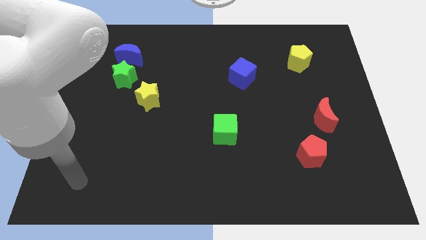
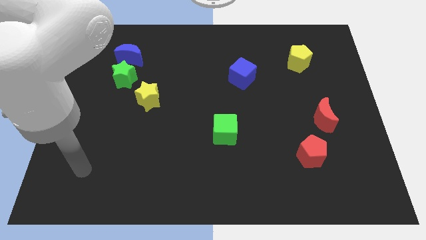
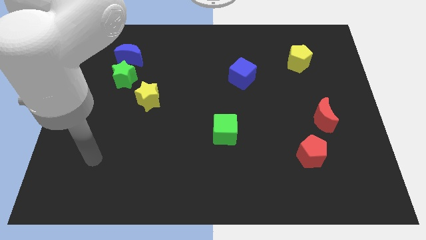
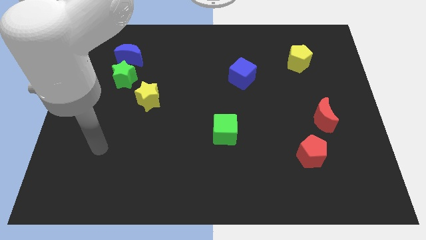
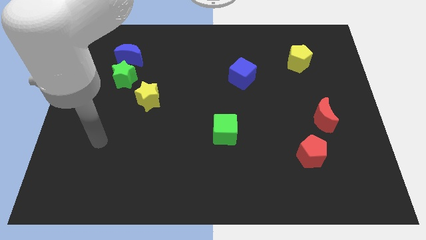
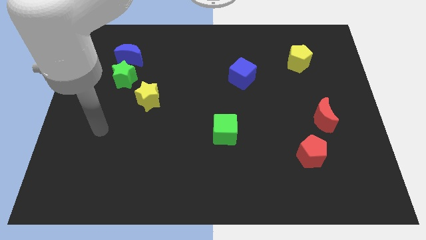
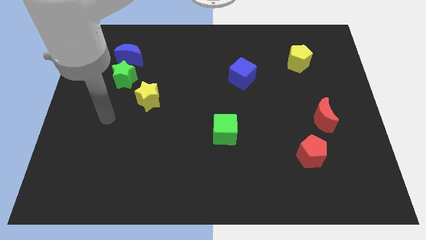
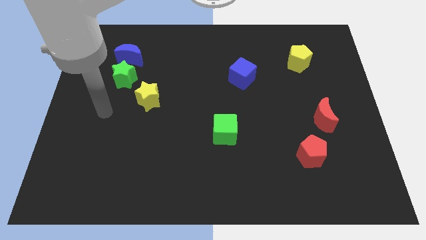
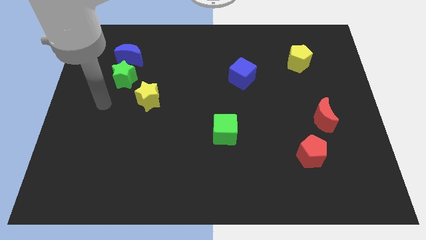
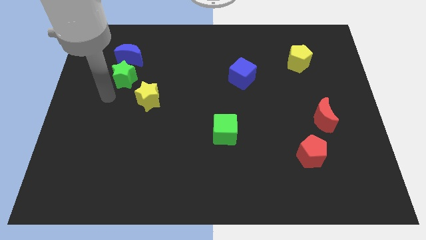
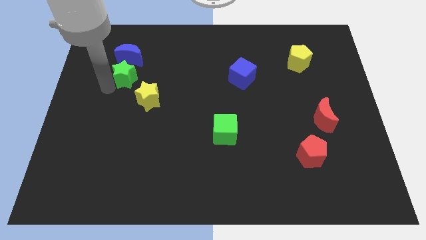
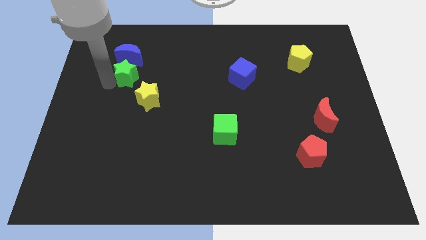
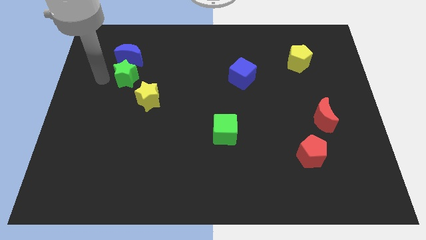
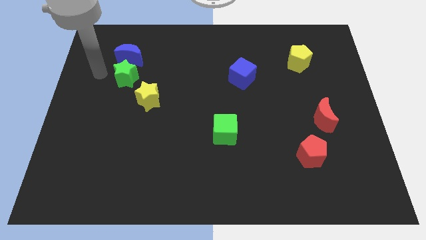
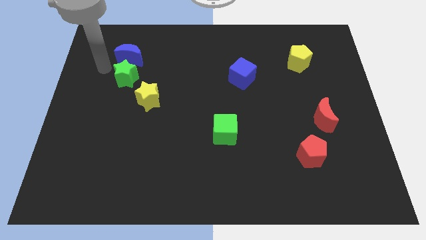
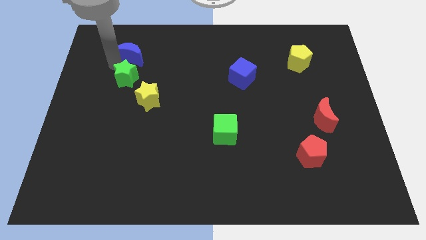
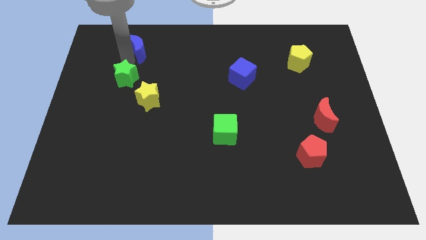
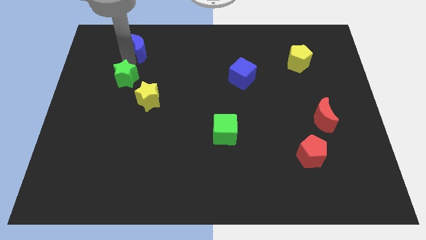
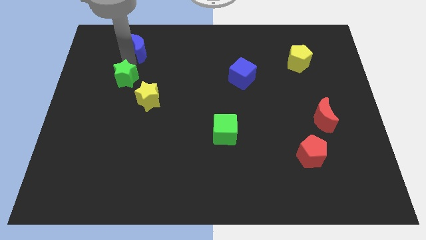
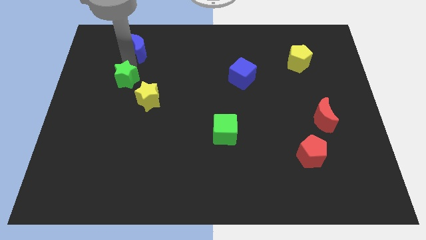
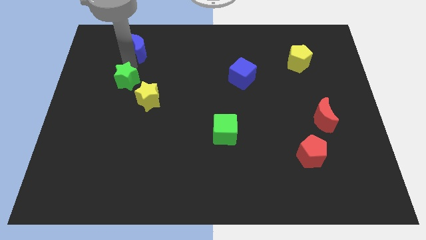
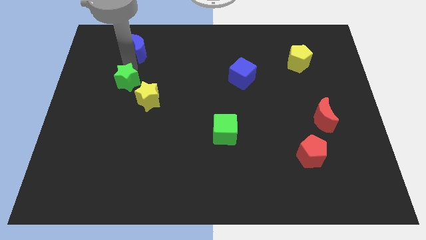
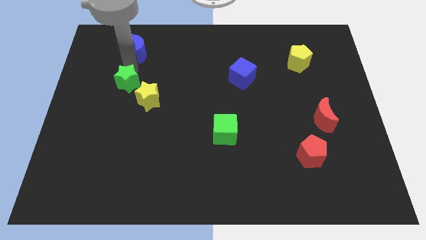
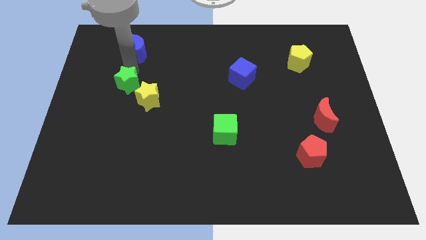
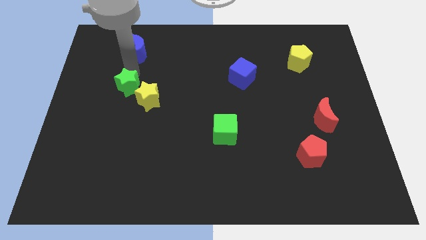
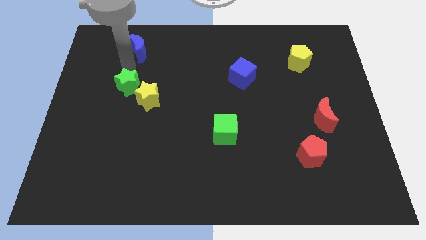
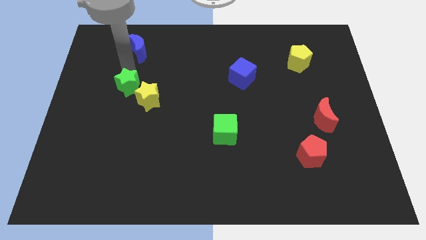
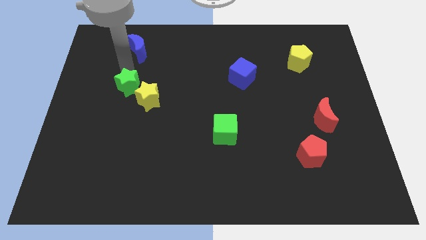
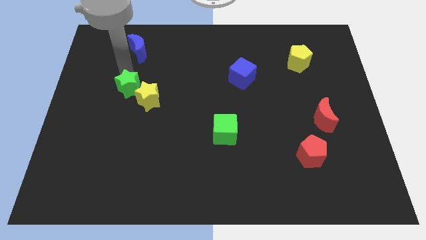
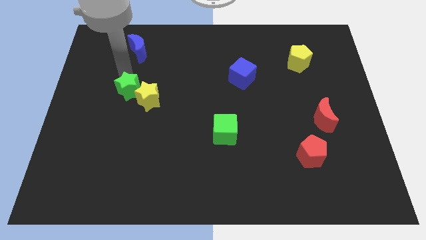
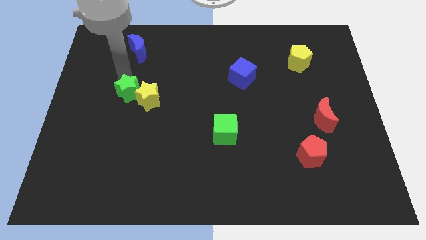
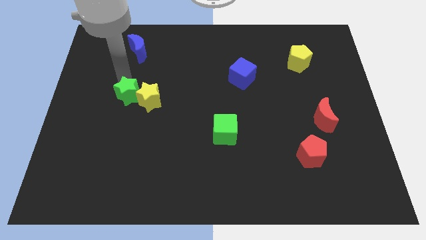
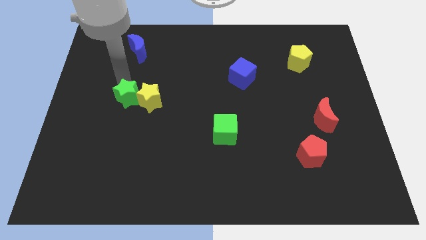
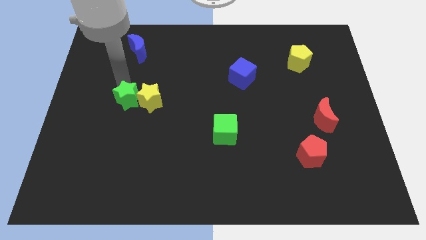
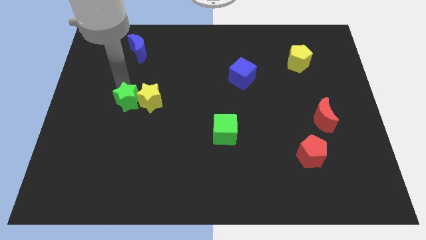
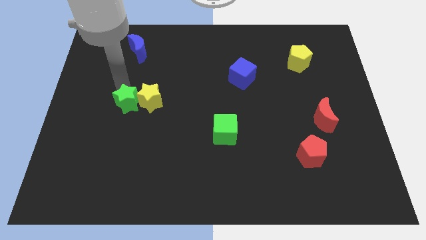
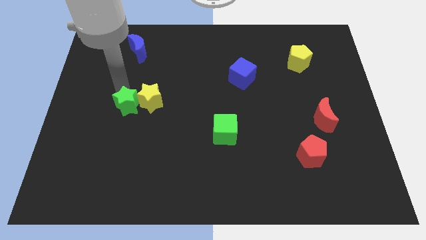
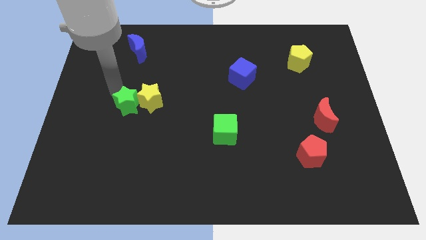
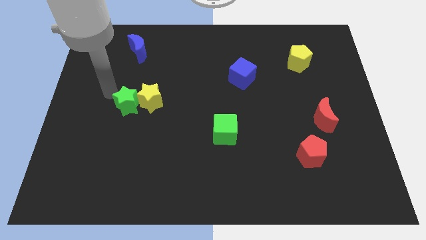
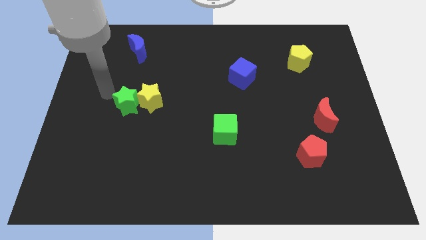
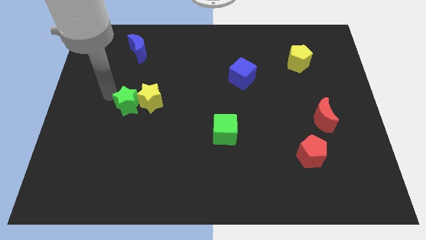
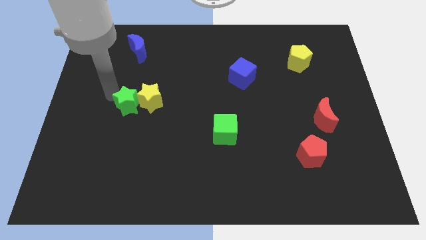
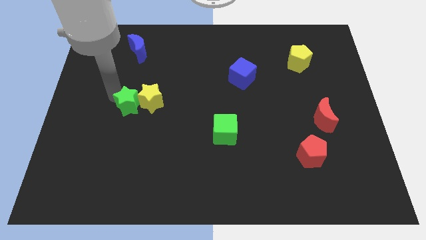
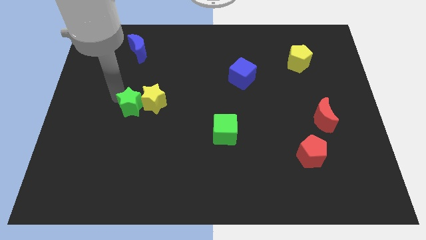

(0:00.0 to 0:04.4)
push the green star down and right a bit

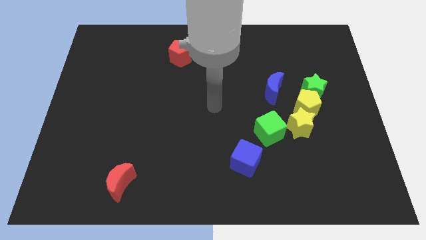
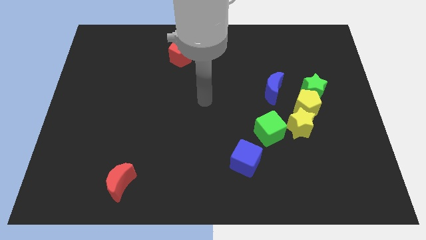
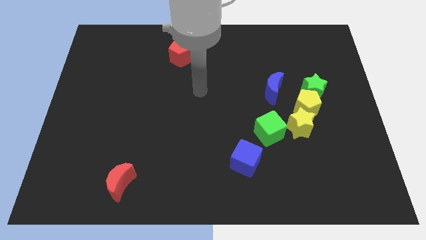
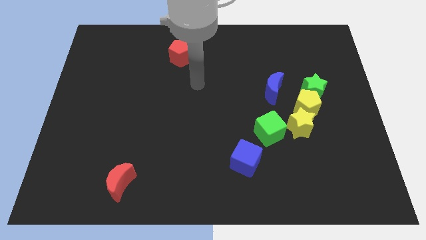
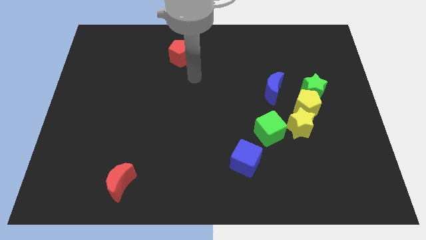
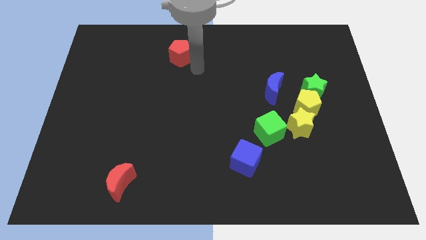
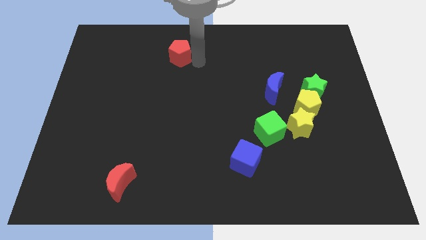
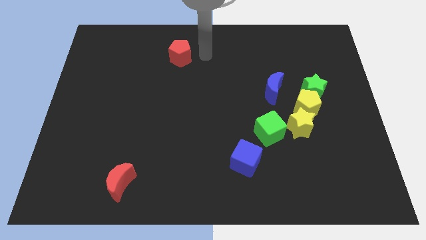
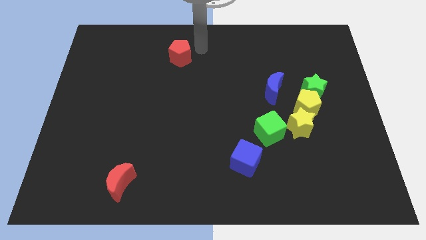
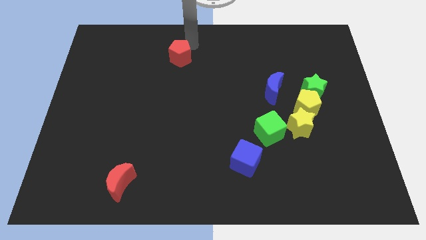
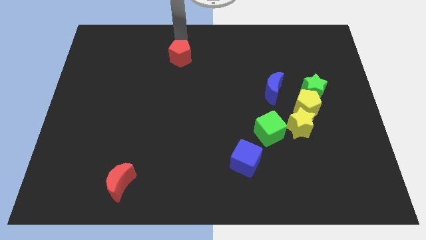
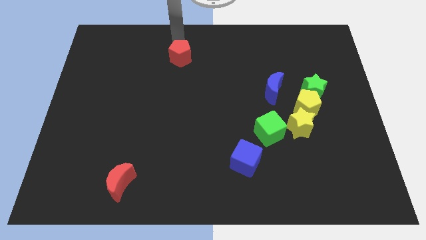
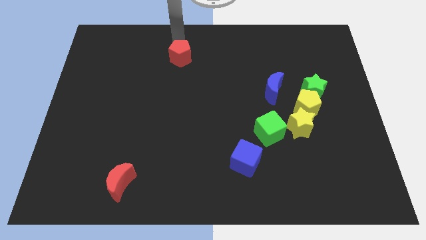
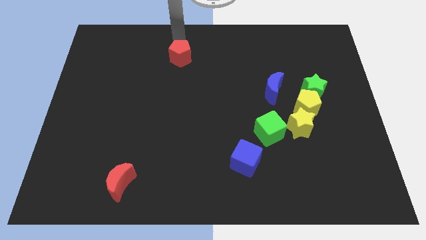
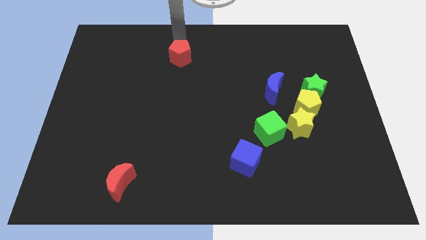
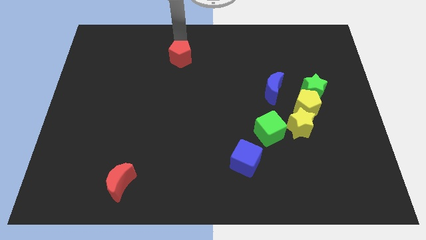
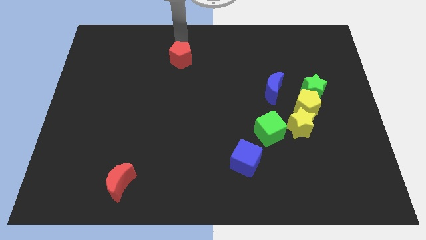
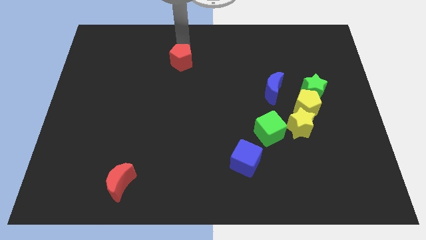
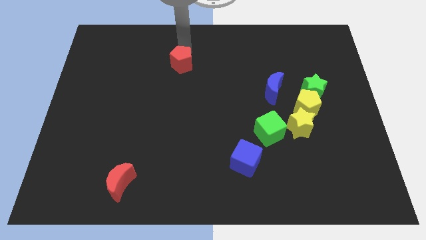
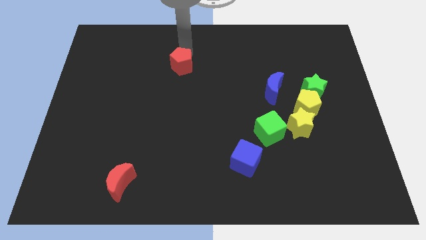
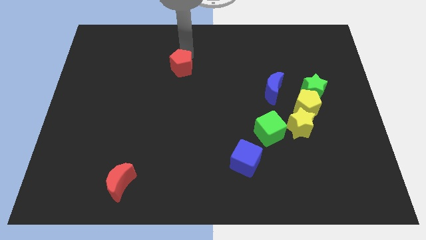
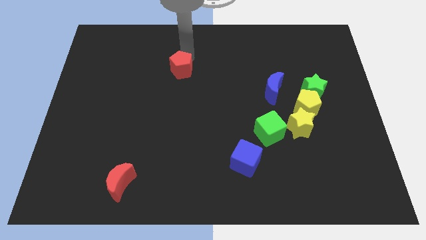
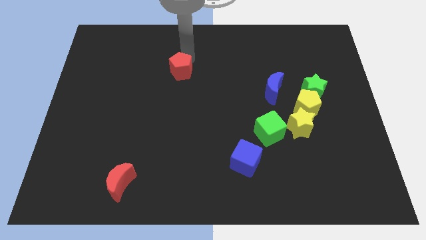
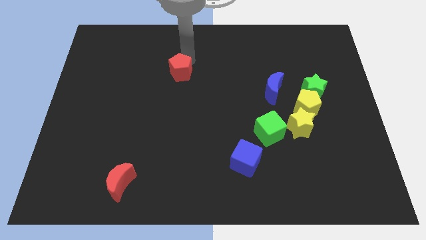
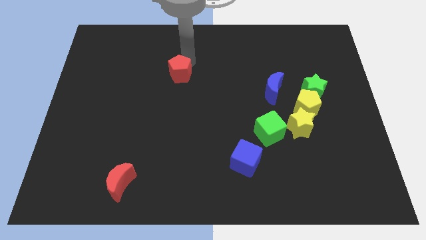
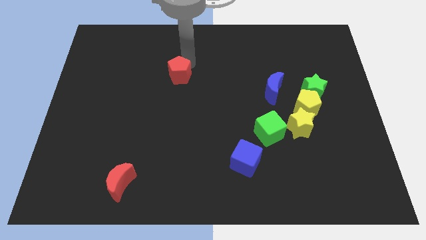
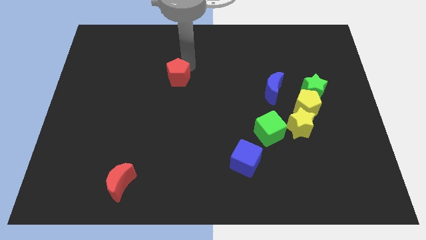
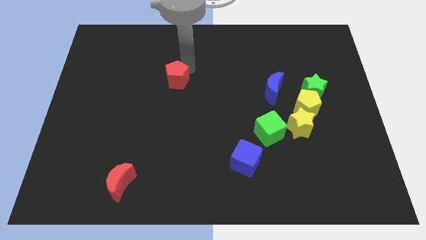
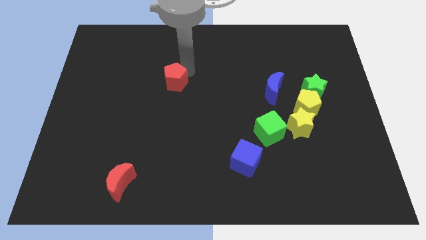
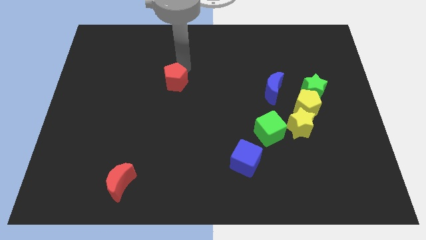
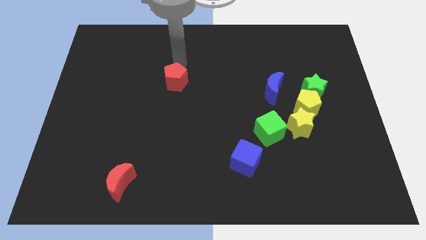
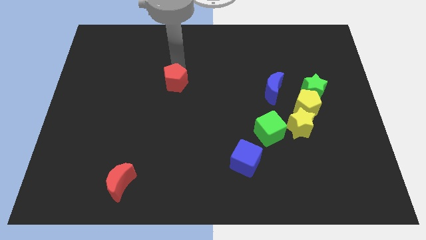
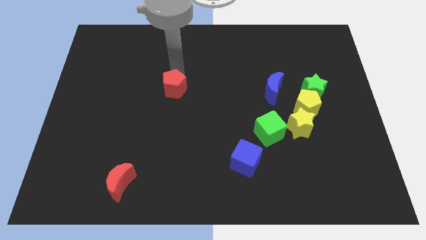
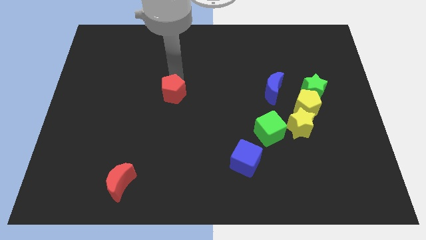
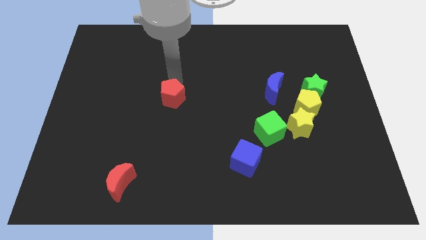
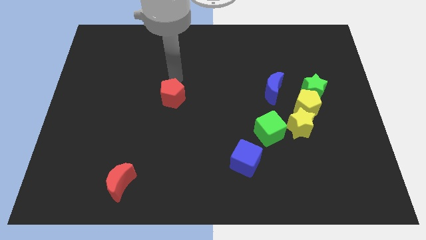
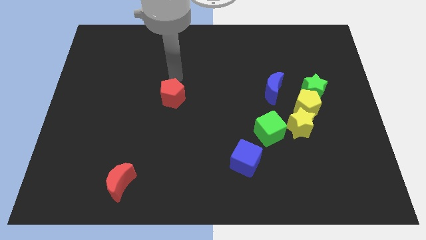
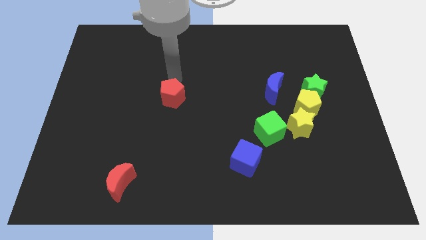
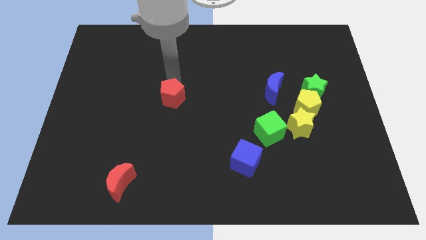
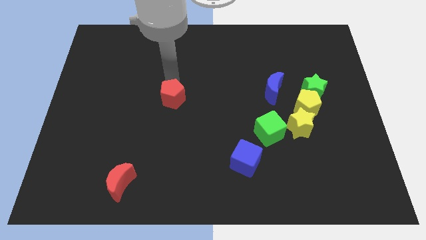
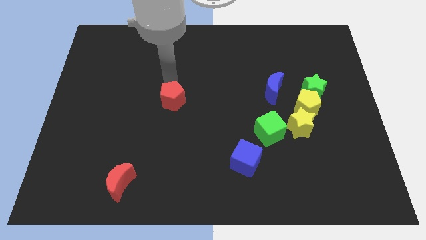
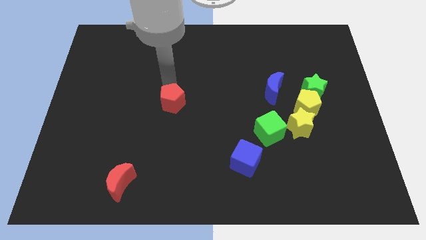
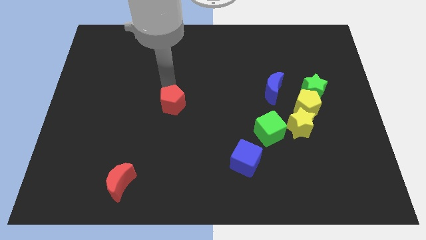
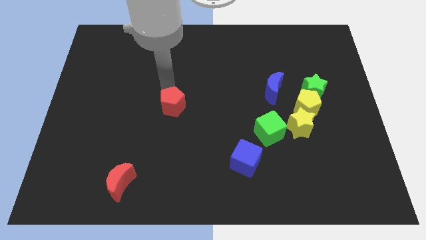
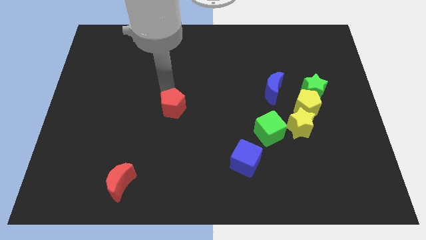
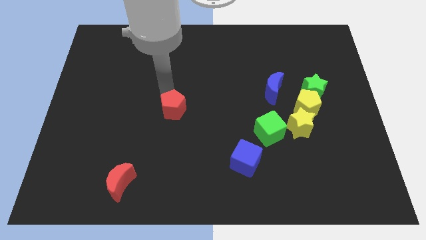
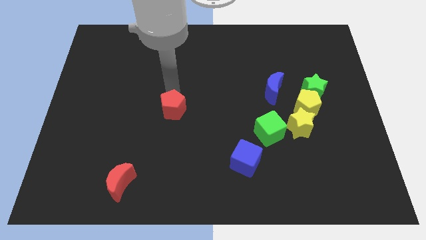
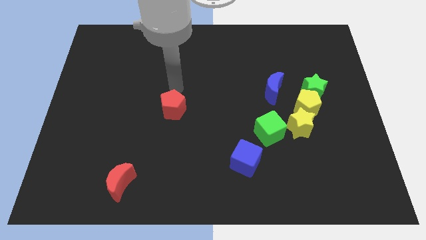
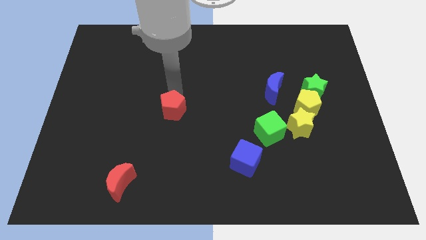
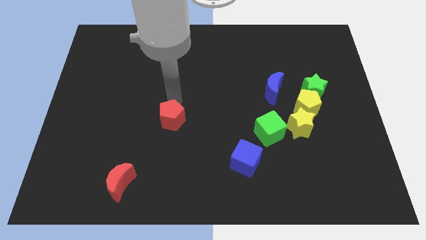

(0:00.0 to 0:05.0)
move the red pentagon down
